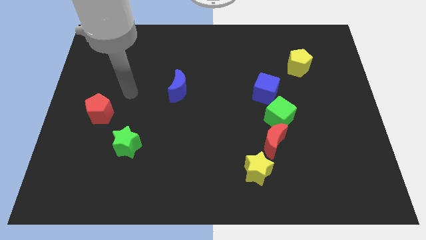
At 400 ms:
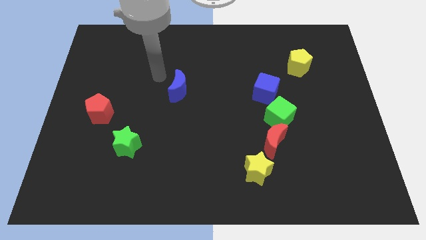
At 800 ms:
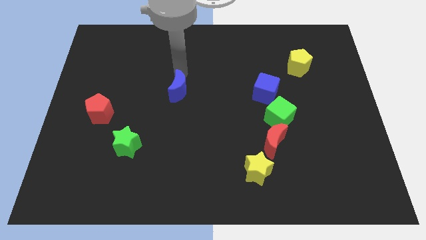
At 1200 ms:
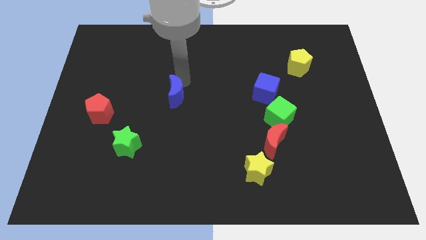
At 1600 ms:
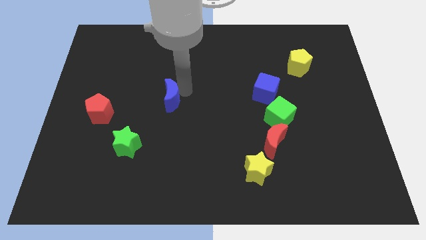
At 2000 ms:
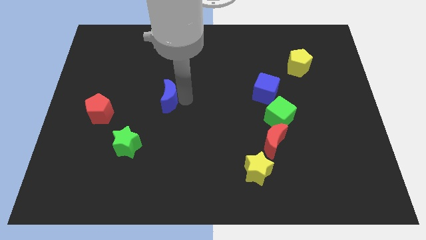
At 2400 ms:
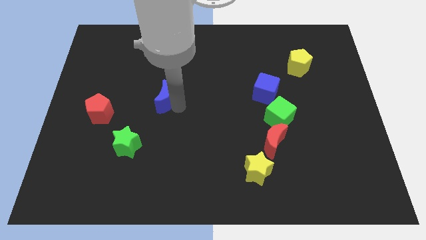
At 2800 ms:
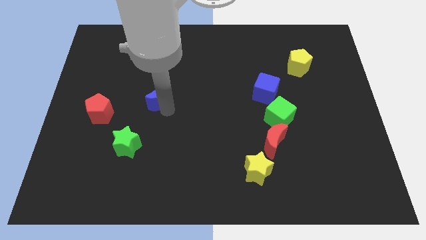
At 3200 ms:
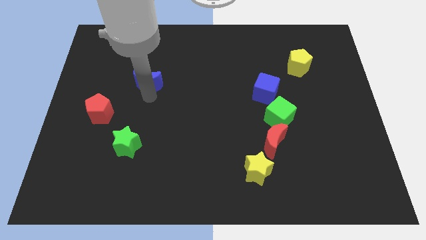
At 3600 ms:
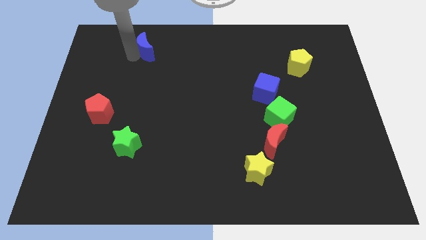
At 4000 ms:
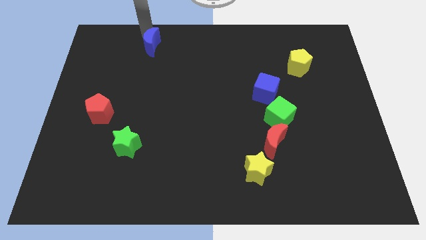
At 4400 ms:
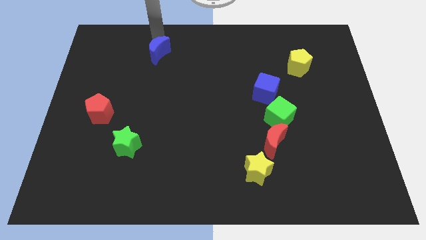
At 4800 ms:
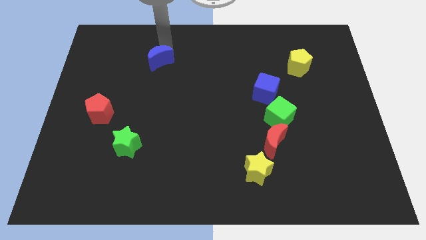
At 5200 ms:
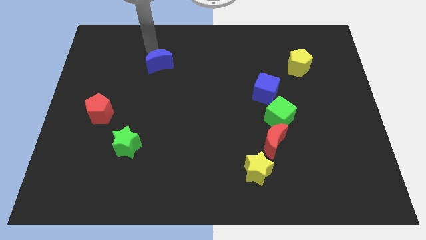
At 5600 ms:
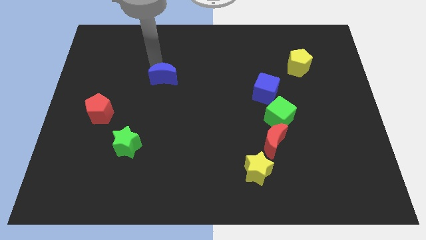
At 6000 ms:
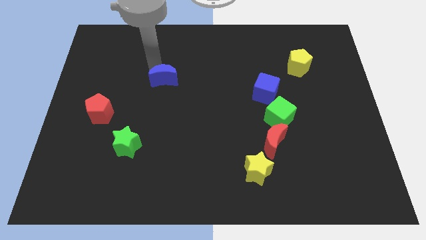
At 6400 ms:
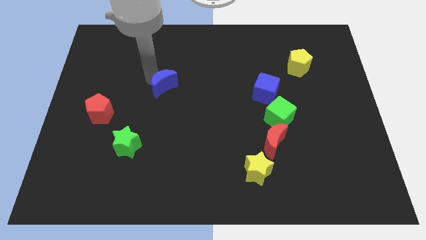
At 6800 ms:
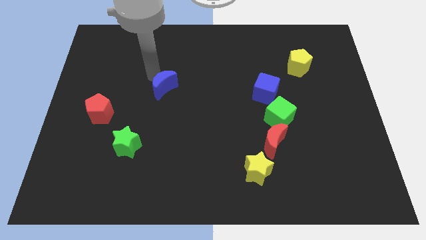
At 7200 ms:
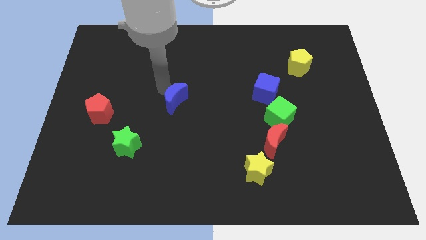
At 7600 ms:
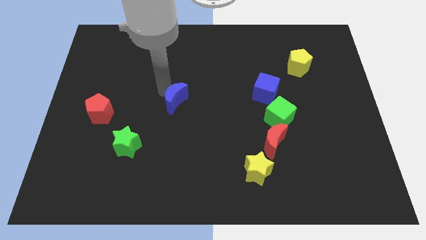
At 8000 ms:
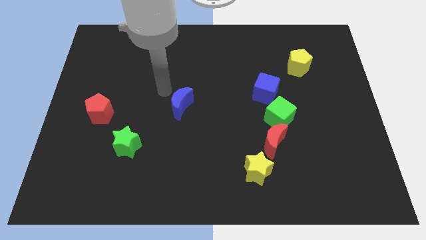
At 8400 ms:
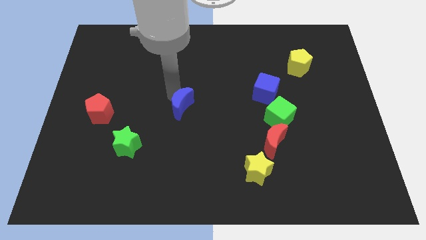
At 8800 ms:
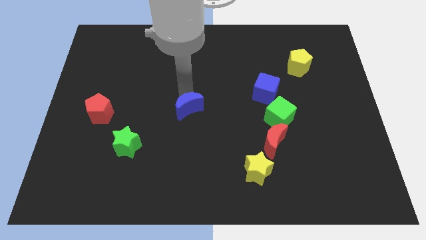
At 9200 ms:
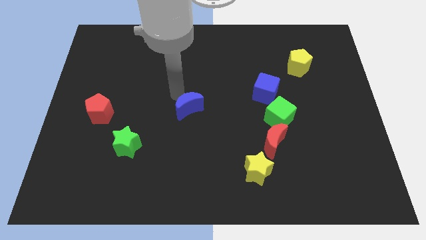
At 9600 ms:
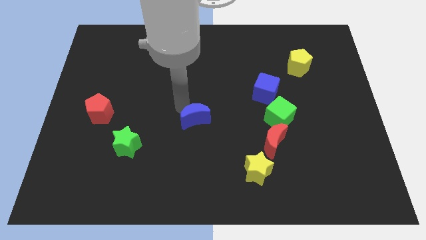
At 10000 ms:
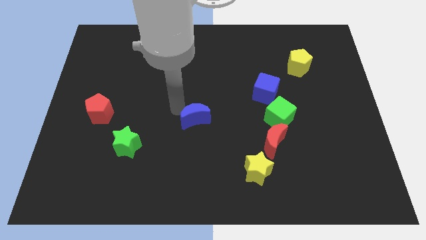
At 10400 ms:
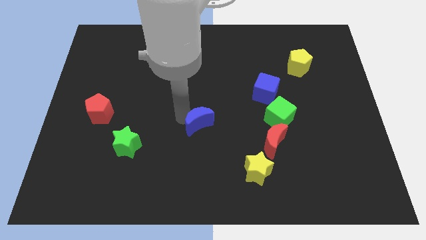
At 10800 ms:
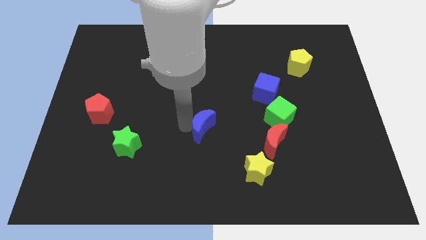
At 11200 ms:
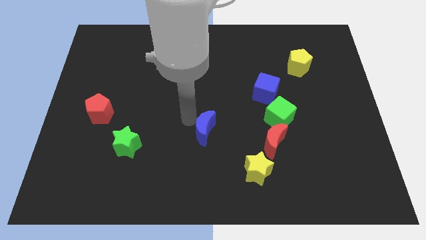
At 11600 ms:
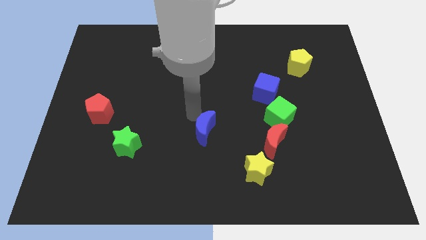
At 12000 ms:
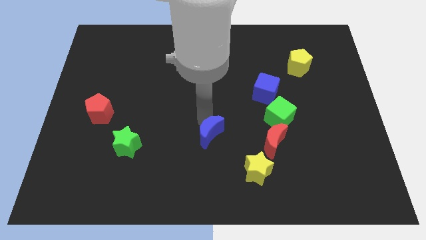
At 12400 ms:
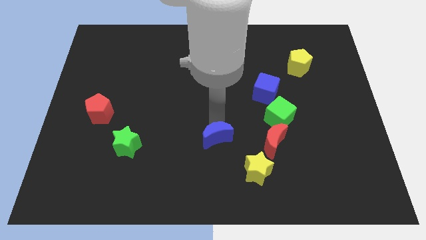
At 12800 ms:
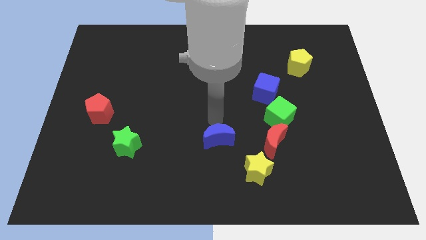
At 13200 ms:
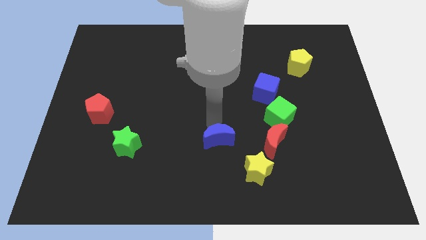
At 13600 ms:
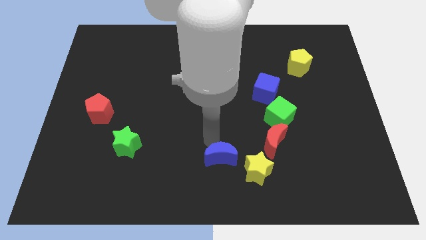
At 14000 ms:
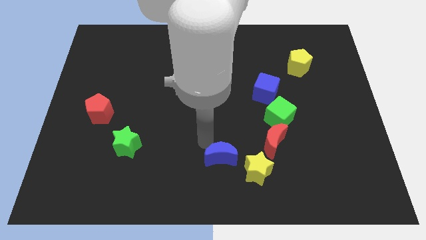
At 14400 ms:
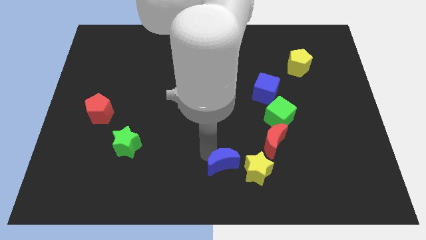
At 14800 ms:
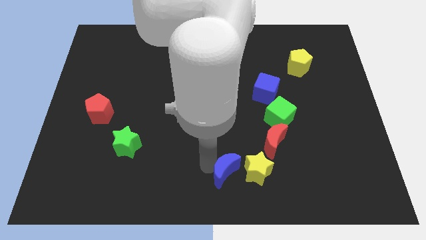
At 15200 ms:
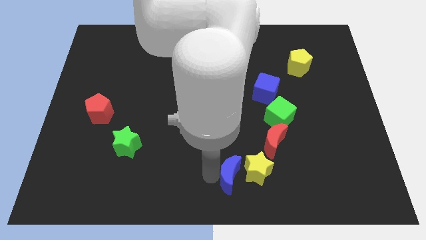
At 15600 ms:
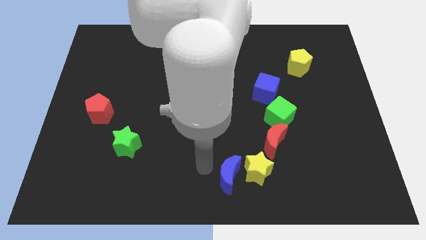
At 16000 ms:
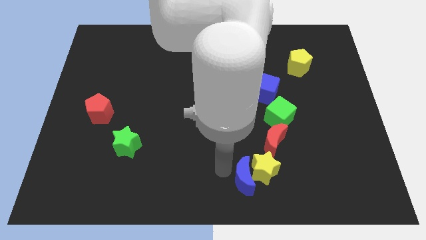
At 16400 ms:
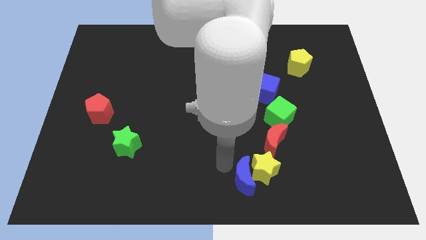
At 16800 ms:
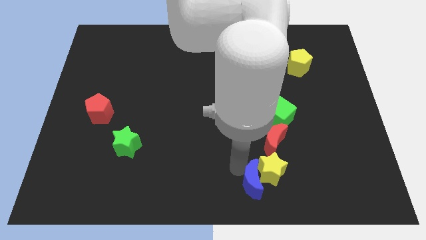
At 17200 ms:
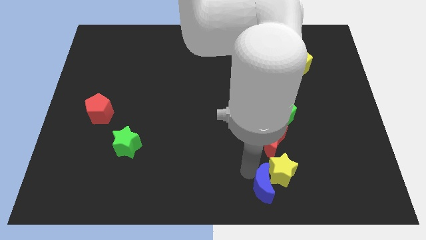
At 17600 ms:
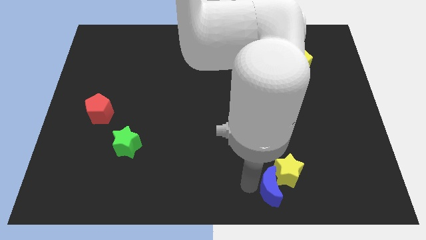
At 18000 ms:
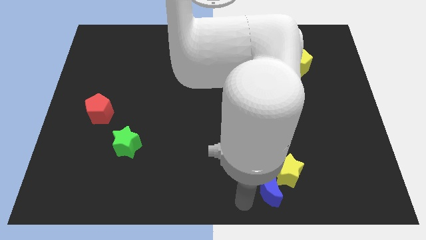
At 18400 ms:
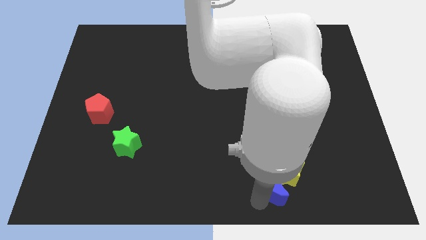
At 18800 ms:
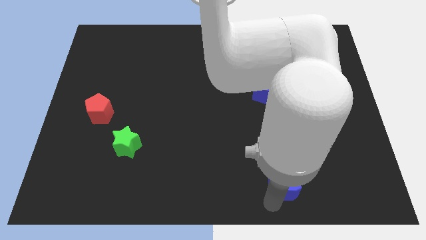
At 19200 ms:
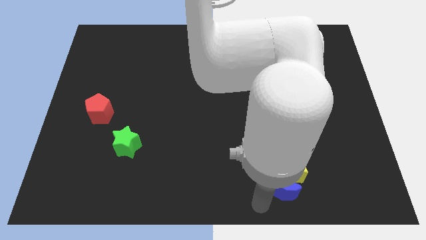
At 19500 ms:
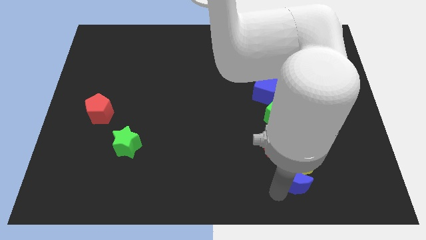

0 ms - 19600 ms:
put the blue moon diagonally down and to the right of the red moon

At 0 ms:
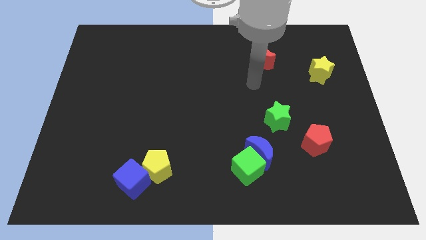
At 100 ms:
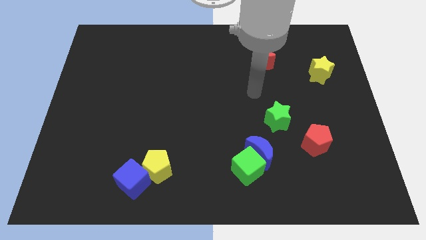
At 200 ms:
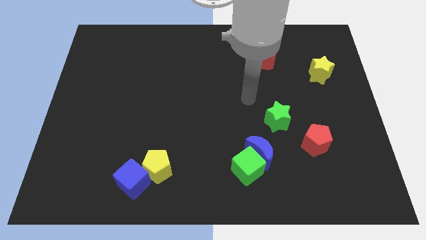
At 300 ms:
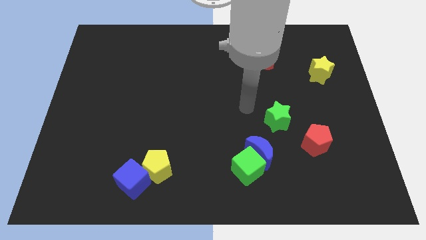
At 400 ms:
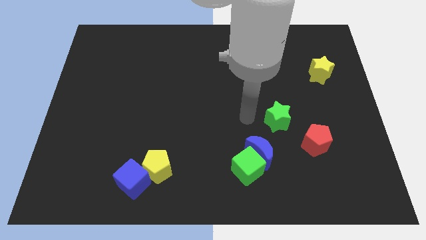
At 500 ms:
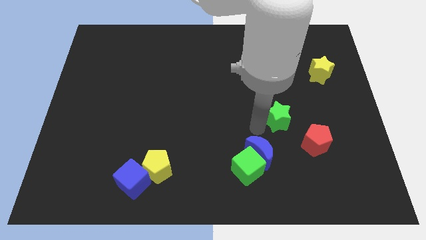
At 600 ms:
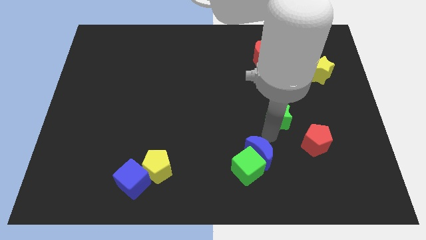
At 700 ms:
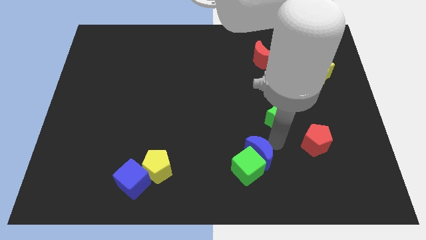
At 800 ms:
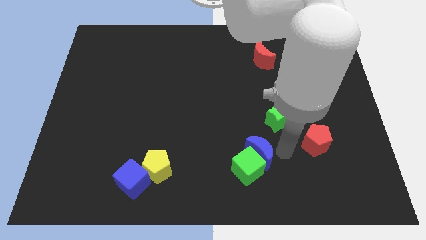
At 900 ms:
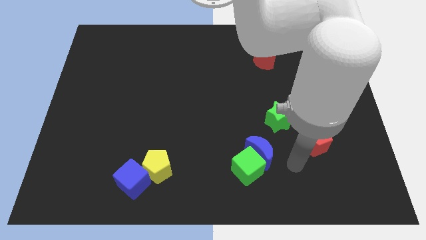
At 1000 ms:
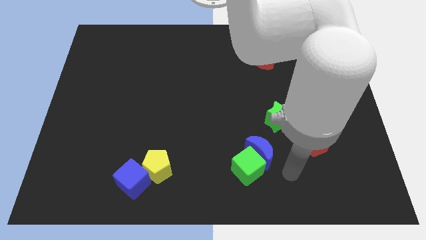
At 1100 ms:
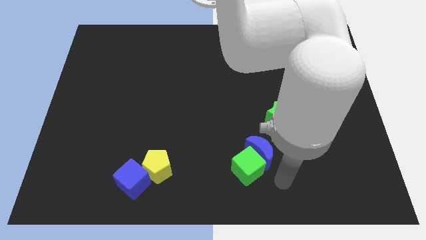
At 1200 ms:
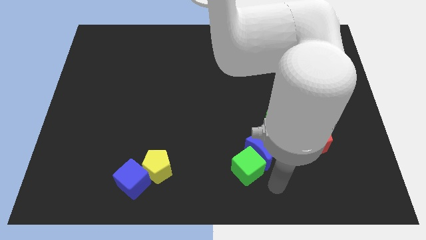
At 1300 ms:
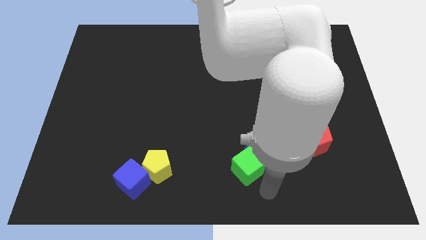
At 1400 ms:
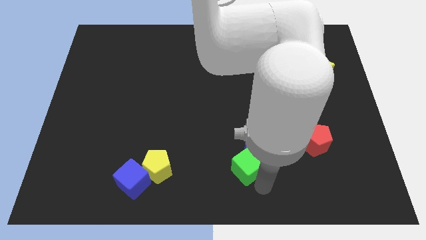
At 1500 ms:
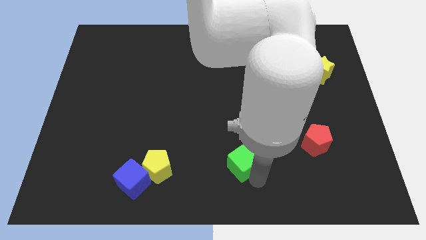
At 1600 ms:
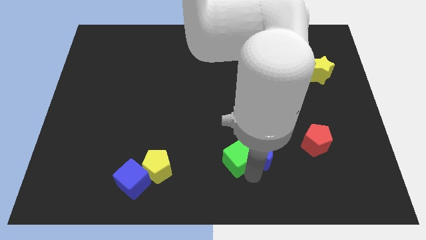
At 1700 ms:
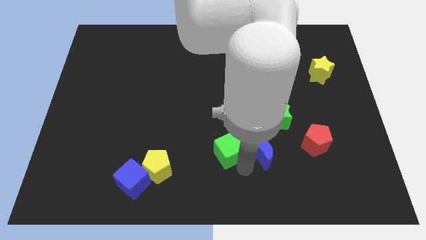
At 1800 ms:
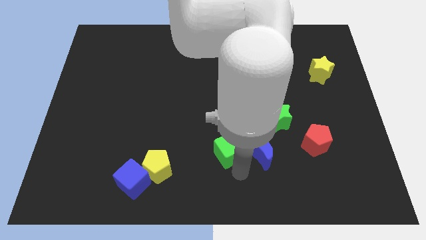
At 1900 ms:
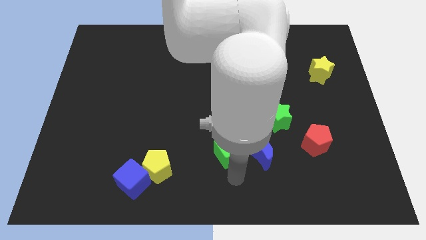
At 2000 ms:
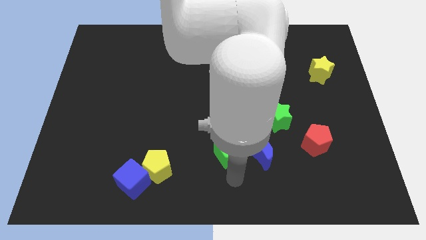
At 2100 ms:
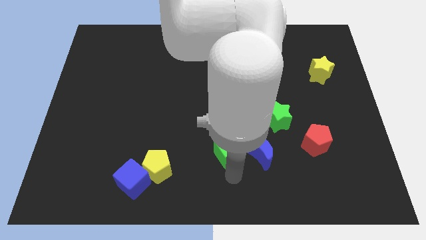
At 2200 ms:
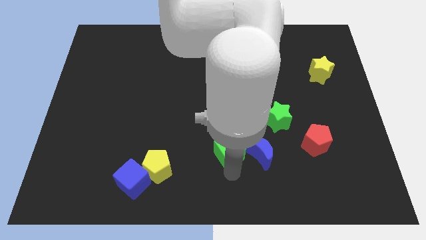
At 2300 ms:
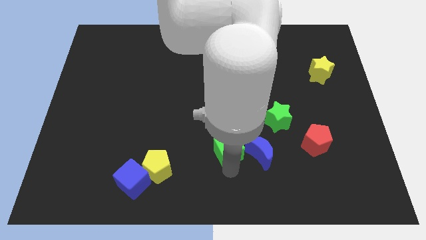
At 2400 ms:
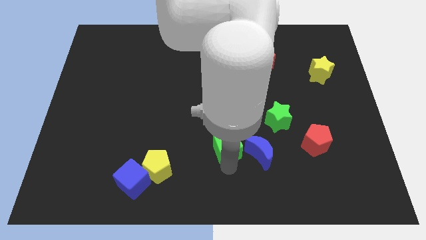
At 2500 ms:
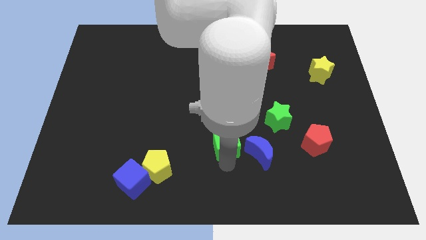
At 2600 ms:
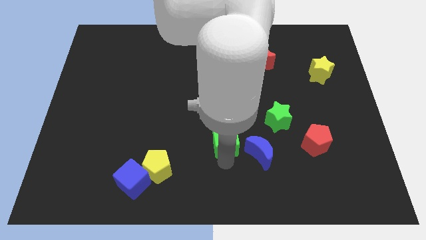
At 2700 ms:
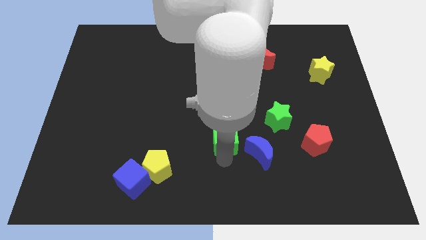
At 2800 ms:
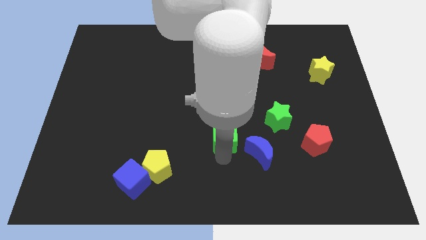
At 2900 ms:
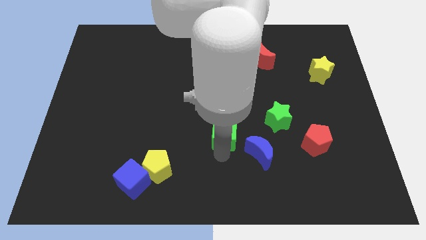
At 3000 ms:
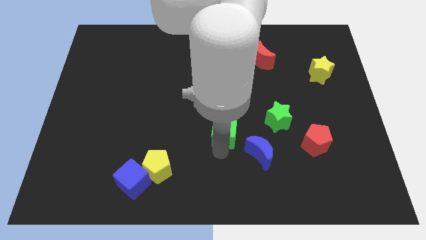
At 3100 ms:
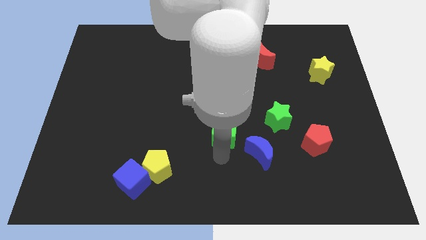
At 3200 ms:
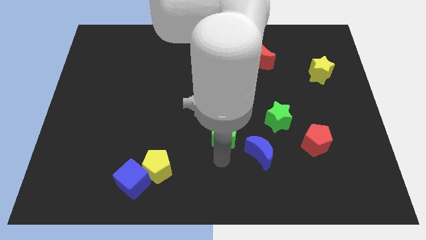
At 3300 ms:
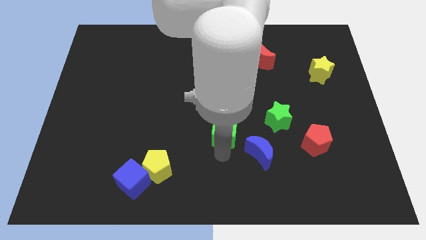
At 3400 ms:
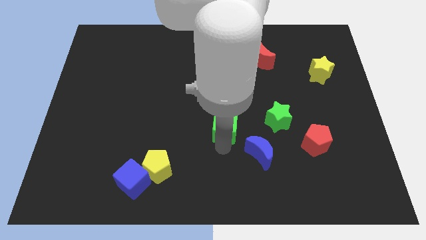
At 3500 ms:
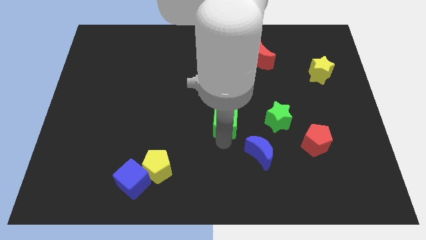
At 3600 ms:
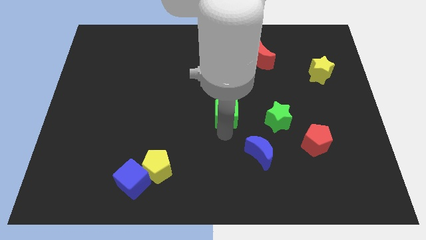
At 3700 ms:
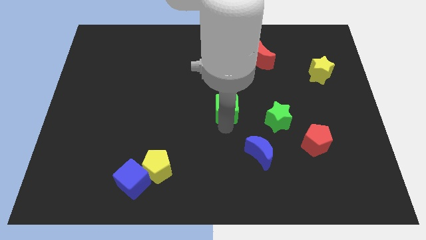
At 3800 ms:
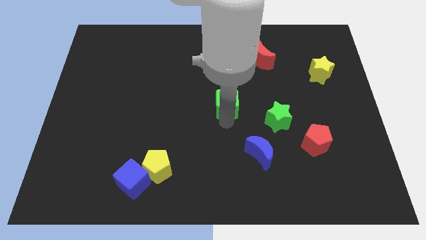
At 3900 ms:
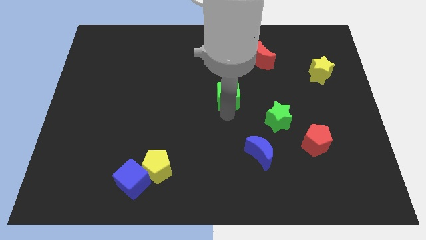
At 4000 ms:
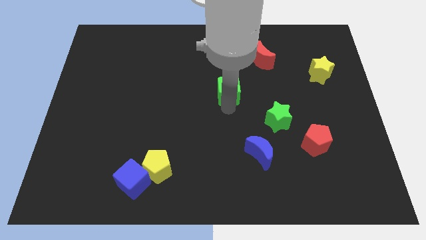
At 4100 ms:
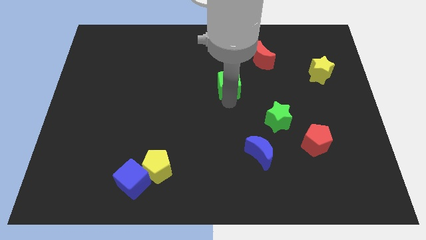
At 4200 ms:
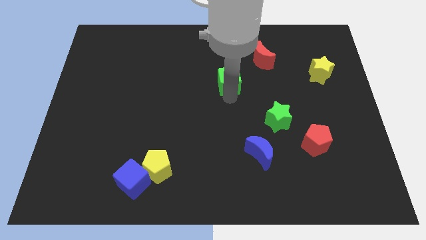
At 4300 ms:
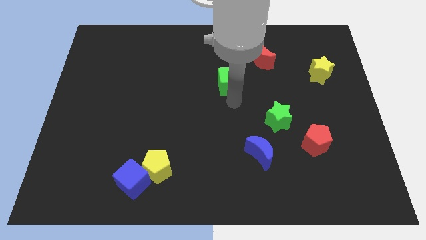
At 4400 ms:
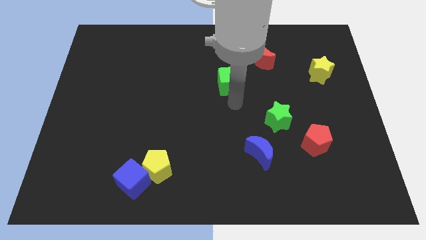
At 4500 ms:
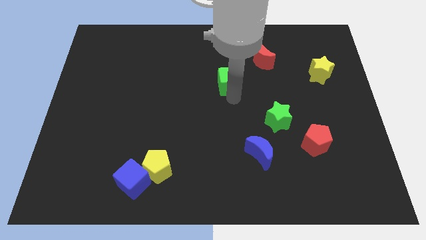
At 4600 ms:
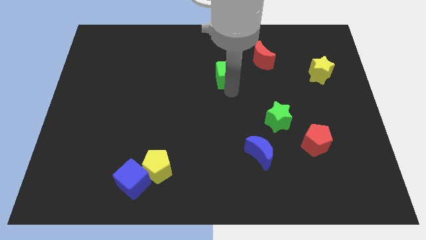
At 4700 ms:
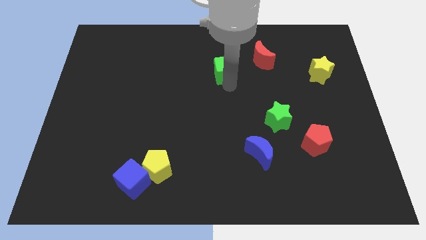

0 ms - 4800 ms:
move the green cube to the left side of the red moon
